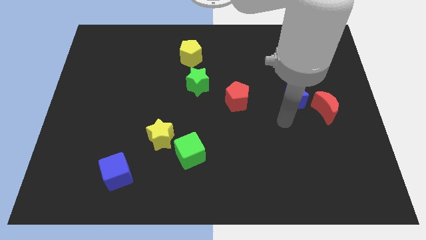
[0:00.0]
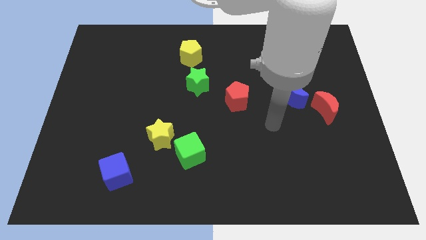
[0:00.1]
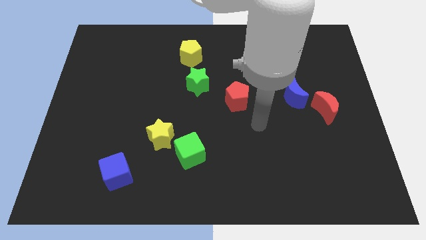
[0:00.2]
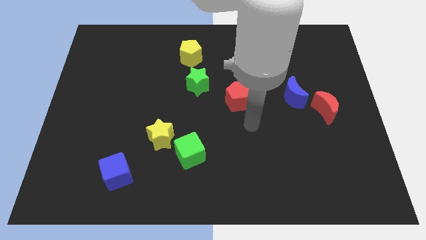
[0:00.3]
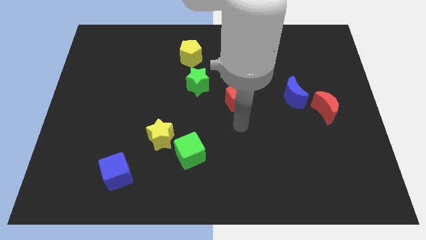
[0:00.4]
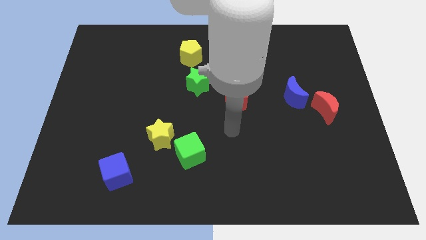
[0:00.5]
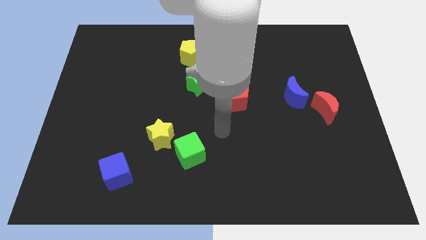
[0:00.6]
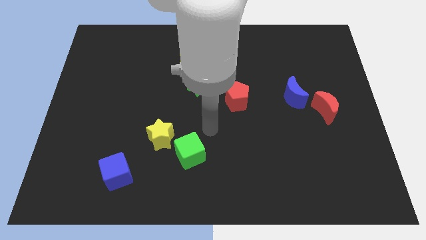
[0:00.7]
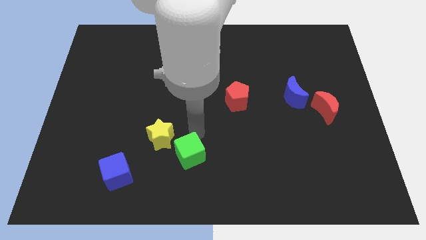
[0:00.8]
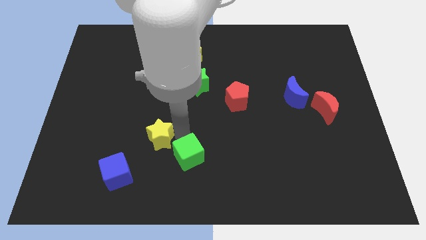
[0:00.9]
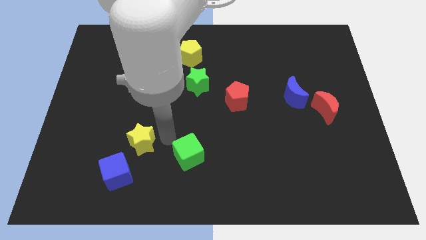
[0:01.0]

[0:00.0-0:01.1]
move the green cube away from the yellow star

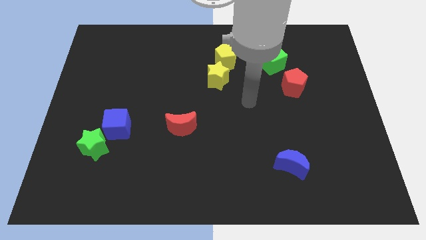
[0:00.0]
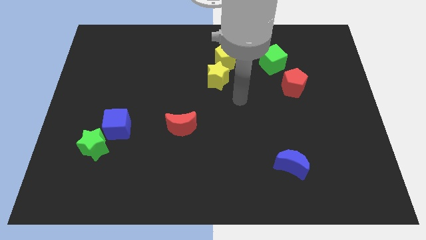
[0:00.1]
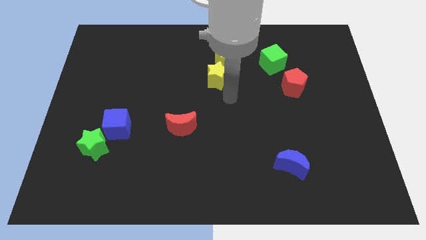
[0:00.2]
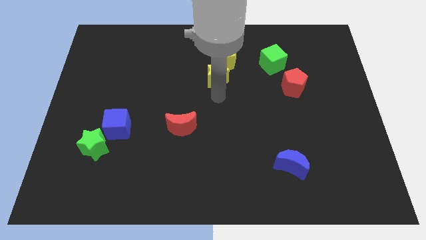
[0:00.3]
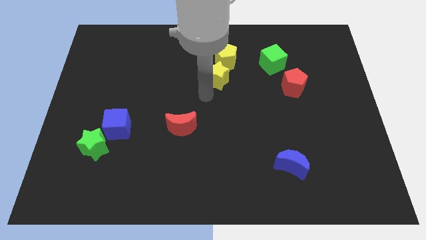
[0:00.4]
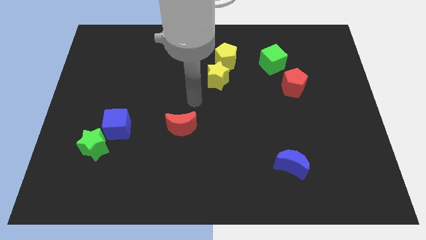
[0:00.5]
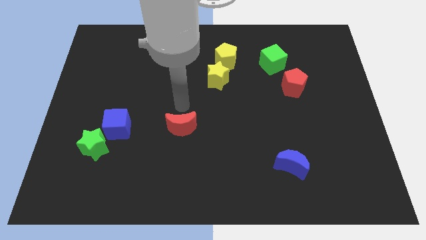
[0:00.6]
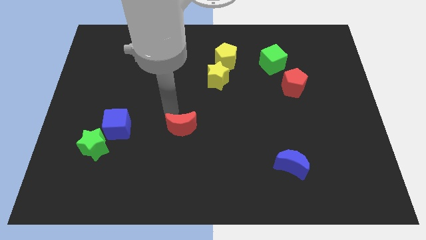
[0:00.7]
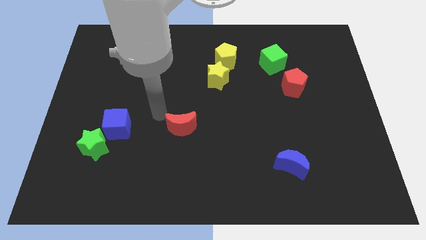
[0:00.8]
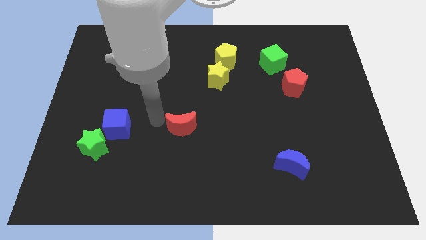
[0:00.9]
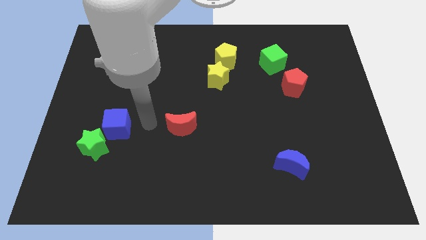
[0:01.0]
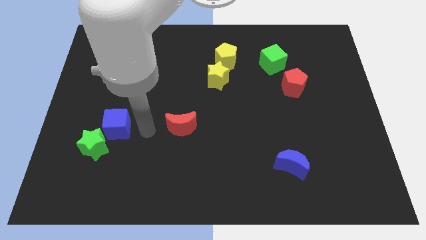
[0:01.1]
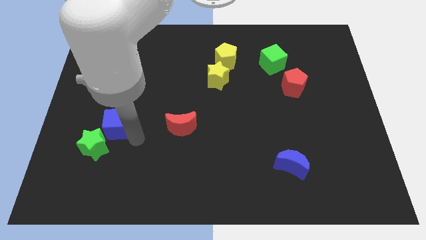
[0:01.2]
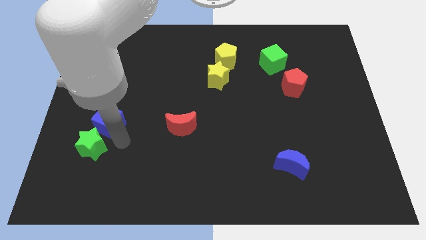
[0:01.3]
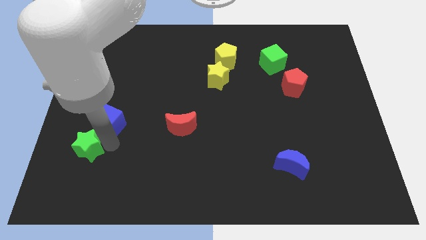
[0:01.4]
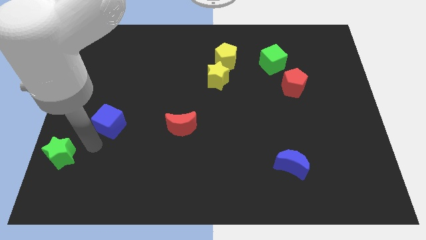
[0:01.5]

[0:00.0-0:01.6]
pull the blue cube apart from the green star

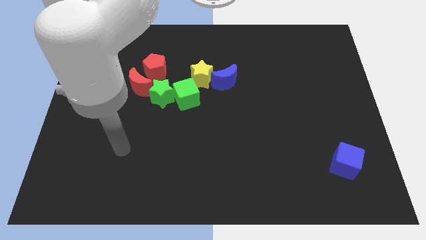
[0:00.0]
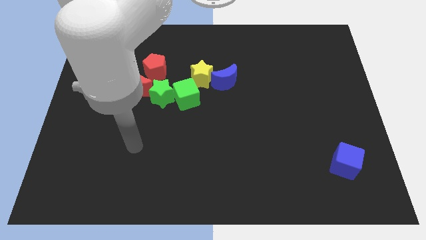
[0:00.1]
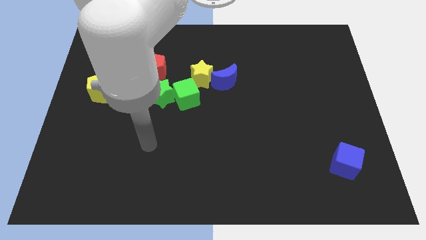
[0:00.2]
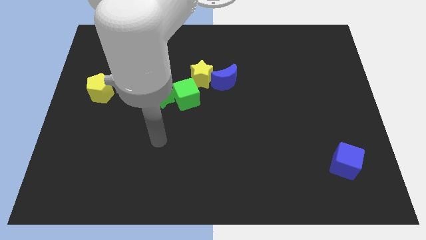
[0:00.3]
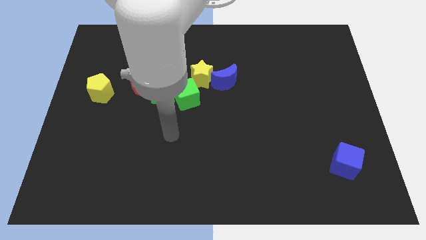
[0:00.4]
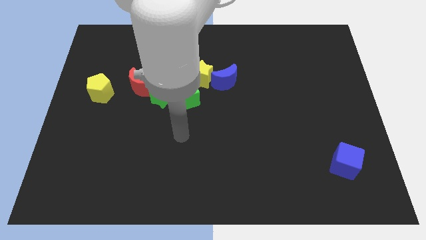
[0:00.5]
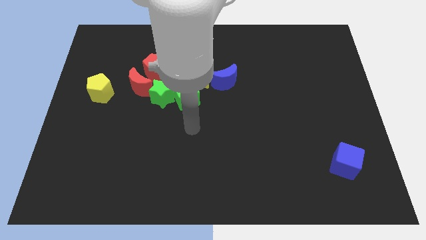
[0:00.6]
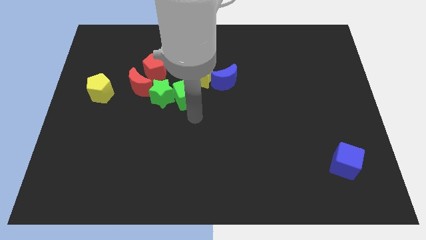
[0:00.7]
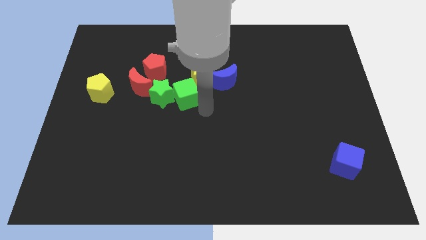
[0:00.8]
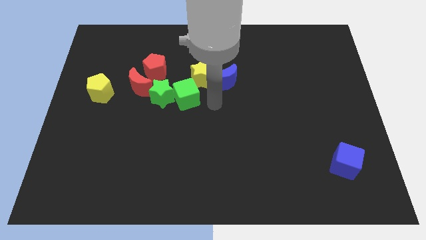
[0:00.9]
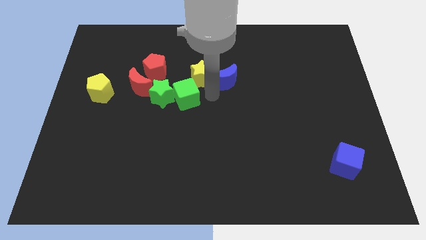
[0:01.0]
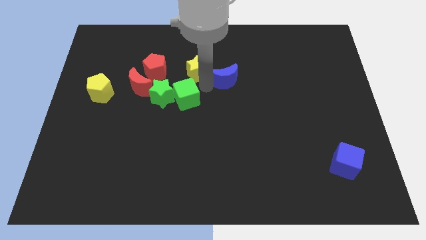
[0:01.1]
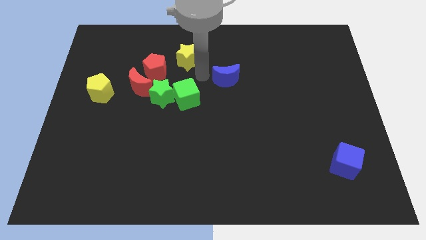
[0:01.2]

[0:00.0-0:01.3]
separate the blue moon from the yellow star

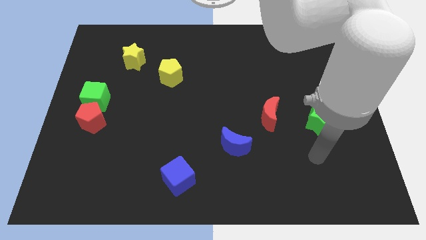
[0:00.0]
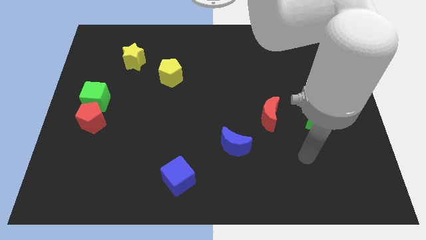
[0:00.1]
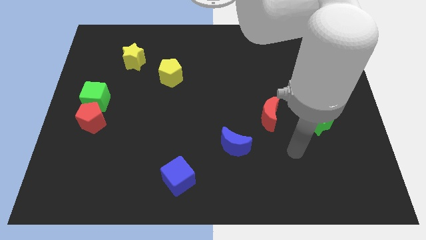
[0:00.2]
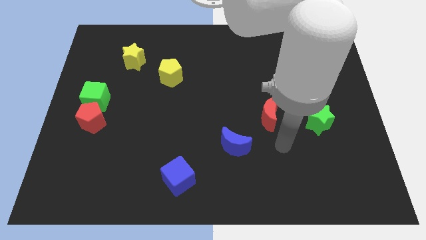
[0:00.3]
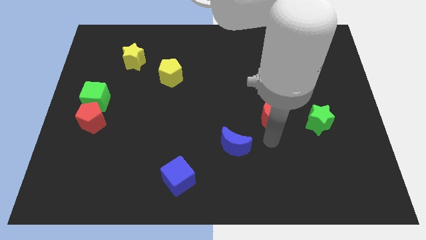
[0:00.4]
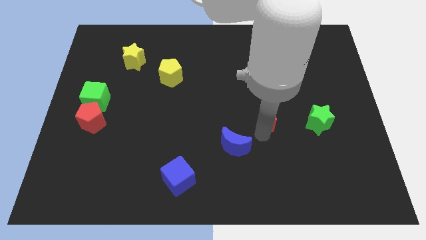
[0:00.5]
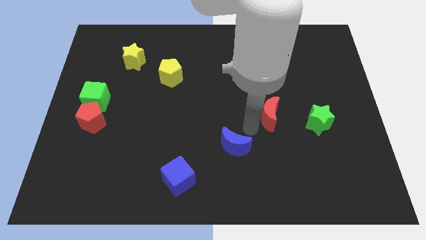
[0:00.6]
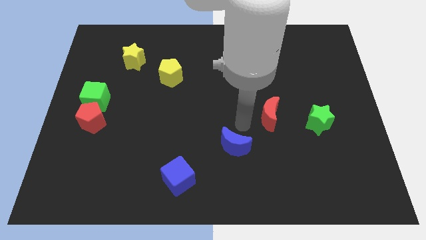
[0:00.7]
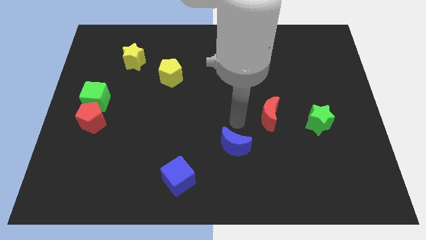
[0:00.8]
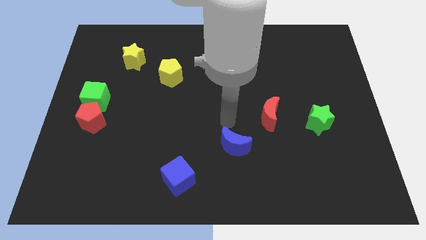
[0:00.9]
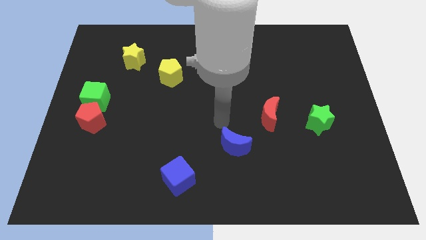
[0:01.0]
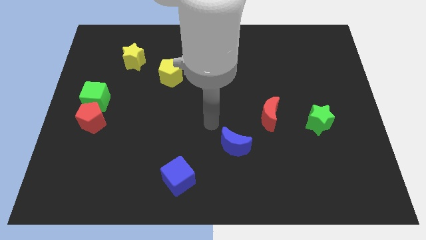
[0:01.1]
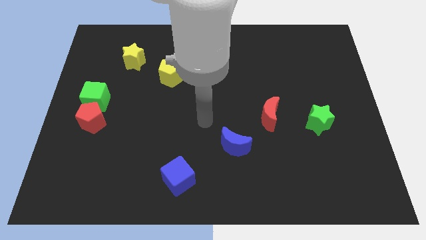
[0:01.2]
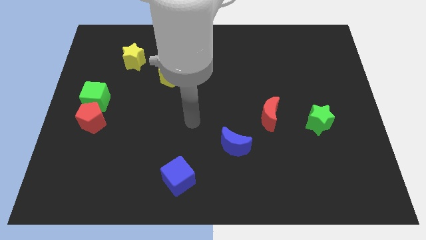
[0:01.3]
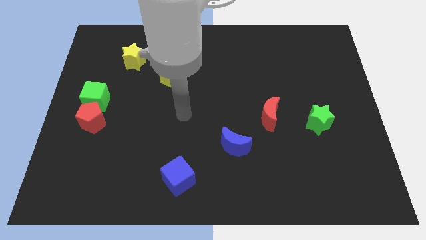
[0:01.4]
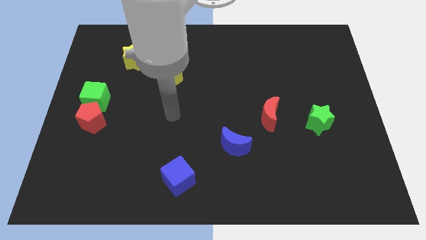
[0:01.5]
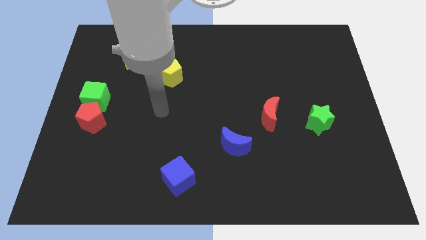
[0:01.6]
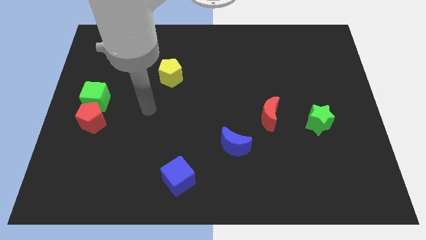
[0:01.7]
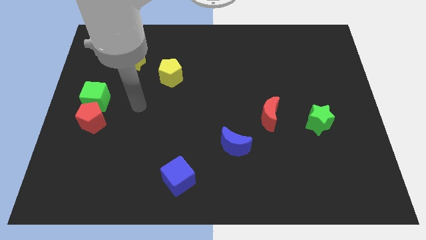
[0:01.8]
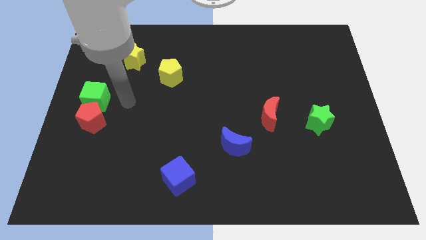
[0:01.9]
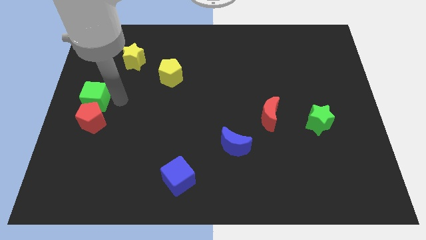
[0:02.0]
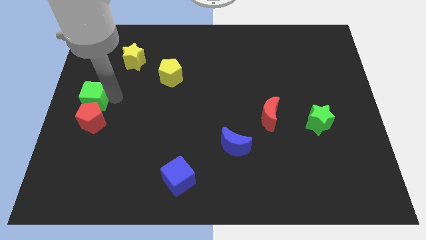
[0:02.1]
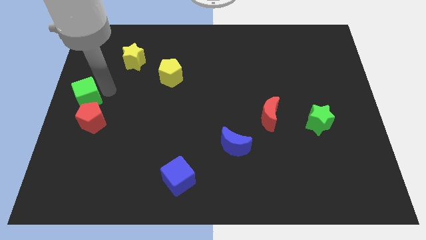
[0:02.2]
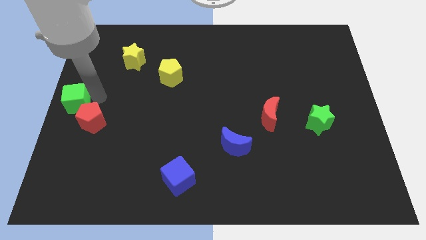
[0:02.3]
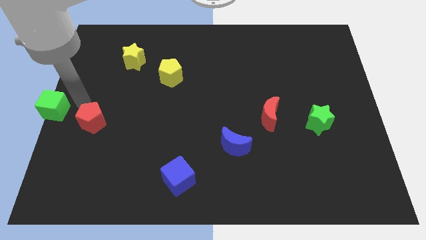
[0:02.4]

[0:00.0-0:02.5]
separate the red pentagon from the green cube

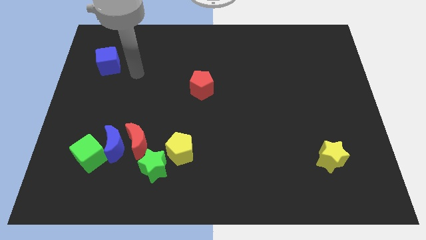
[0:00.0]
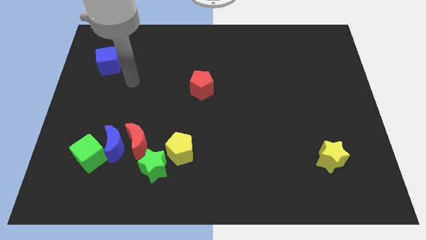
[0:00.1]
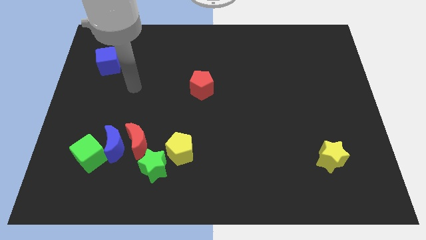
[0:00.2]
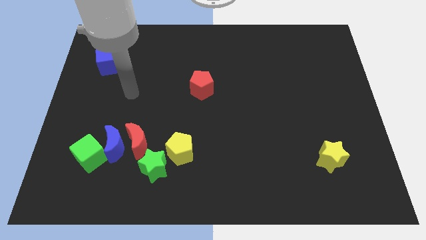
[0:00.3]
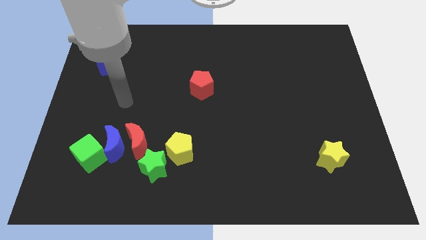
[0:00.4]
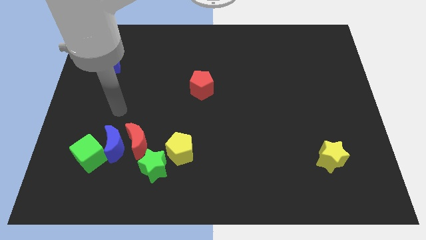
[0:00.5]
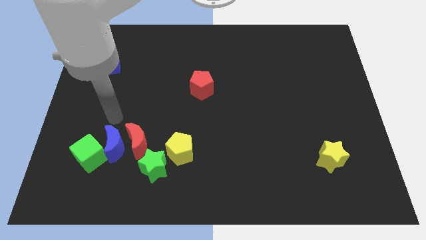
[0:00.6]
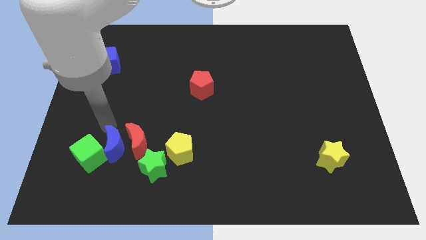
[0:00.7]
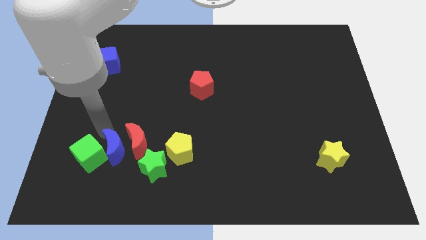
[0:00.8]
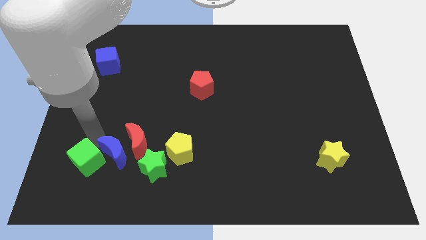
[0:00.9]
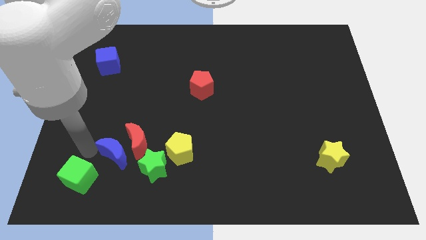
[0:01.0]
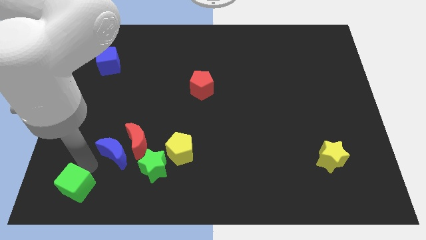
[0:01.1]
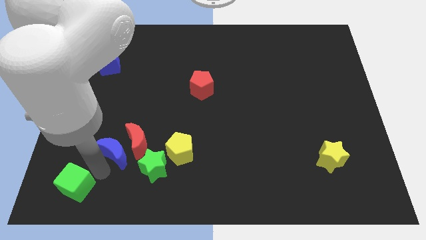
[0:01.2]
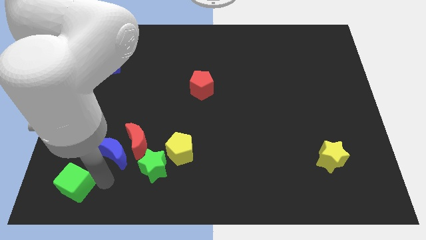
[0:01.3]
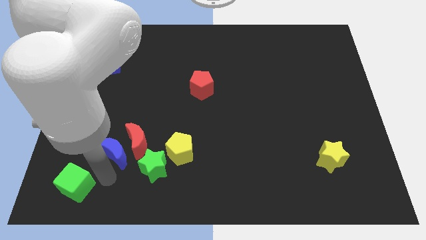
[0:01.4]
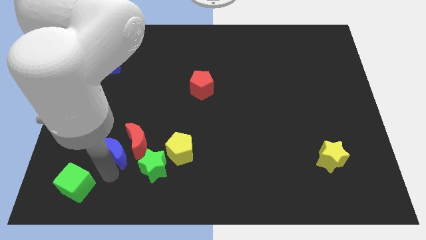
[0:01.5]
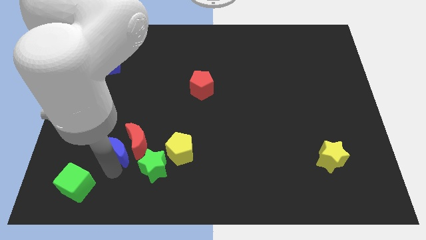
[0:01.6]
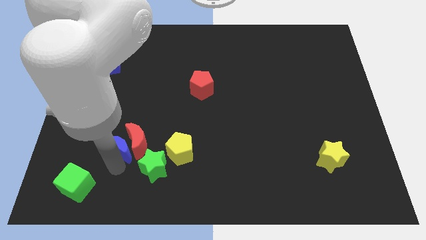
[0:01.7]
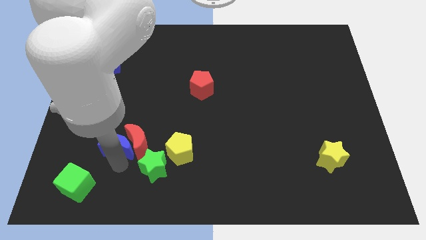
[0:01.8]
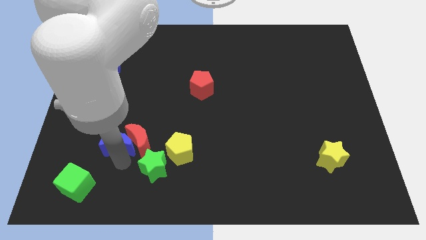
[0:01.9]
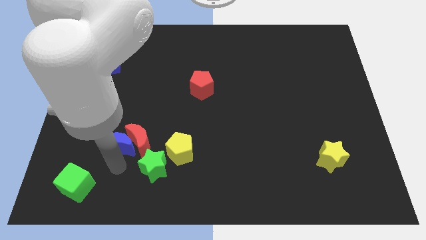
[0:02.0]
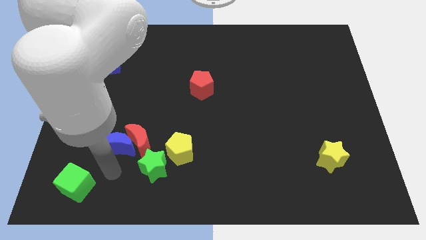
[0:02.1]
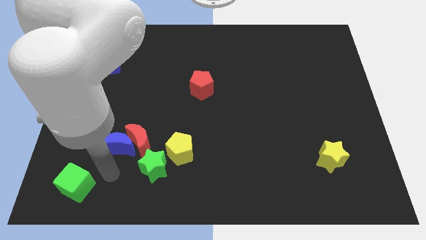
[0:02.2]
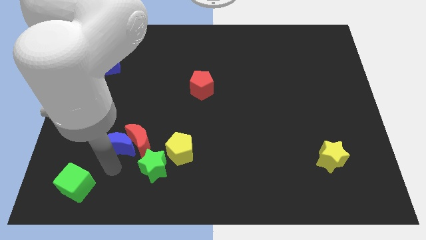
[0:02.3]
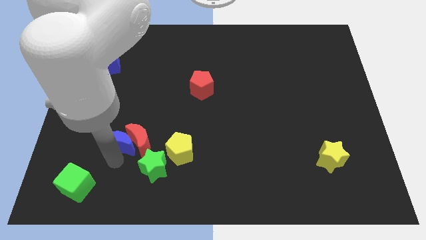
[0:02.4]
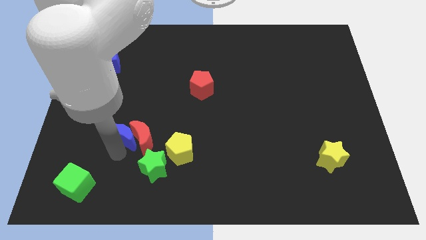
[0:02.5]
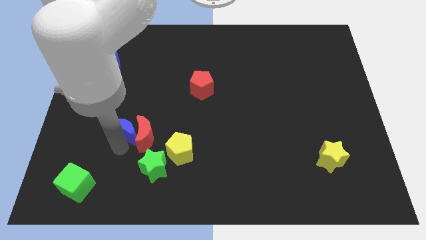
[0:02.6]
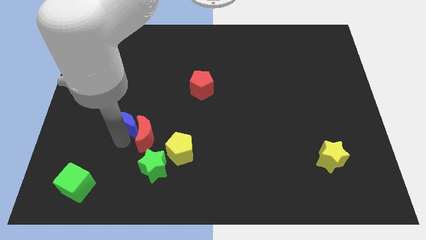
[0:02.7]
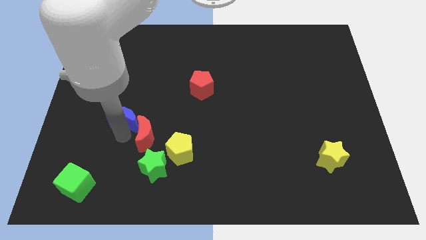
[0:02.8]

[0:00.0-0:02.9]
move the blue moon away from the red moon and green cube
